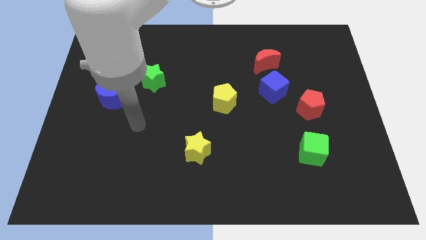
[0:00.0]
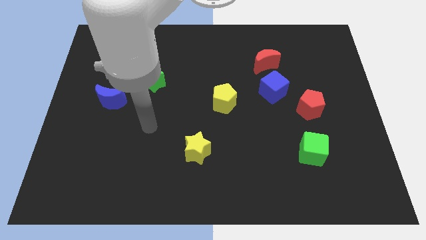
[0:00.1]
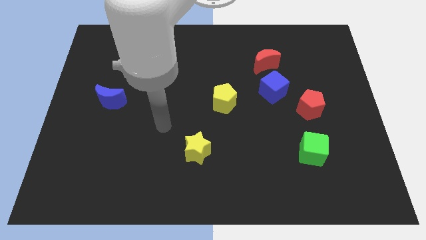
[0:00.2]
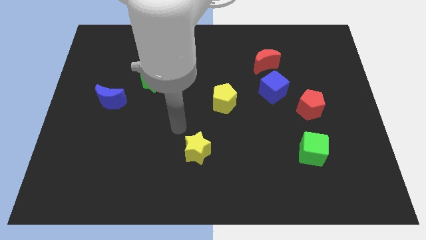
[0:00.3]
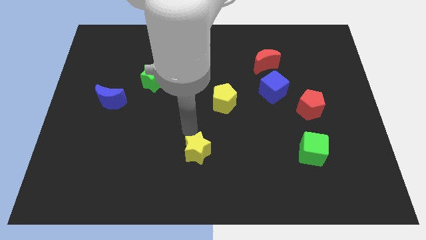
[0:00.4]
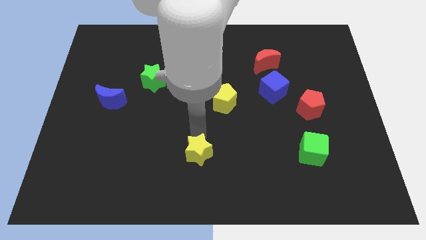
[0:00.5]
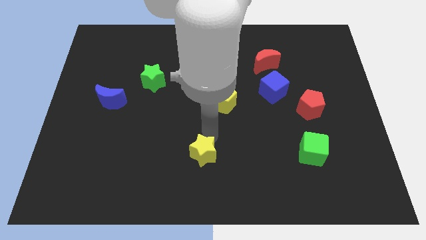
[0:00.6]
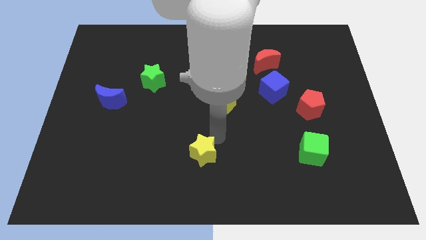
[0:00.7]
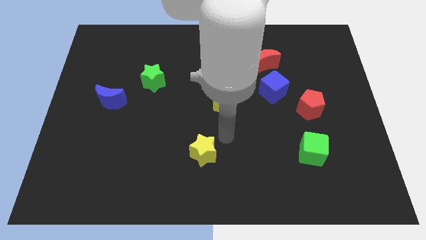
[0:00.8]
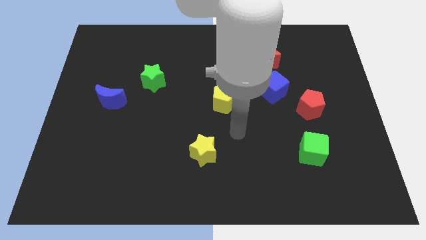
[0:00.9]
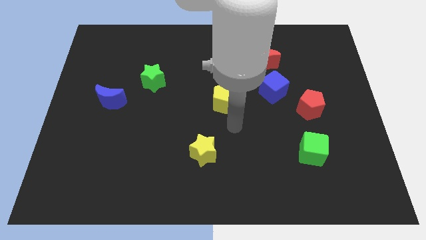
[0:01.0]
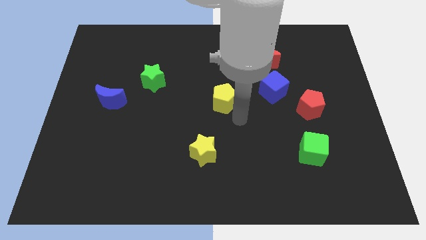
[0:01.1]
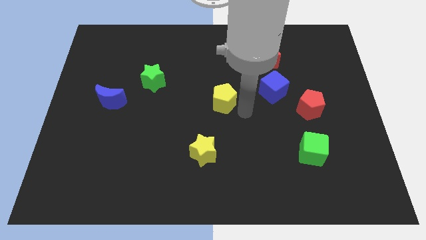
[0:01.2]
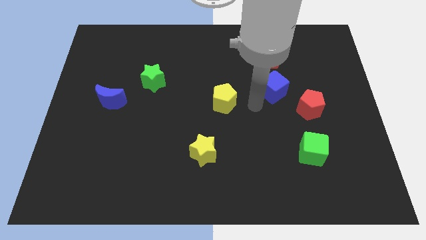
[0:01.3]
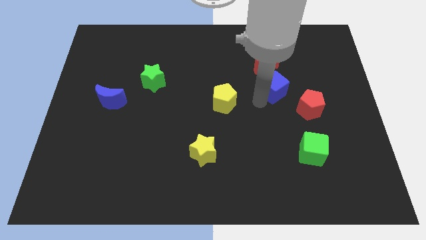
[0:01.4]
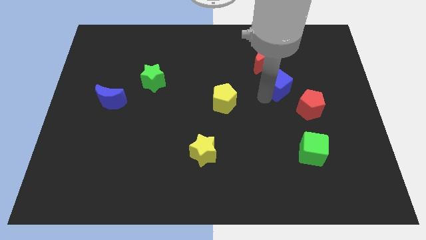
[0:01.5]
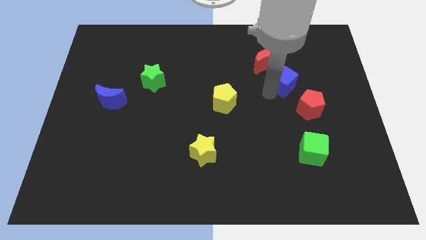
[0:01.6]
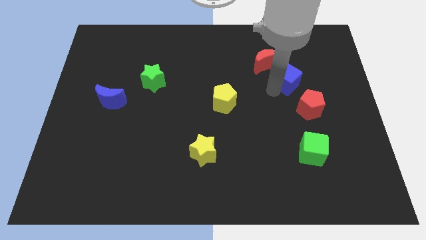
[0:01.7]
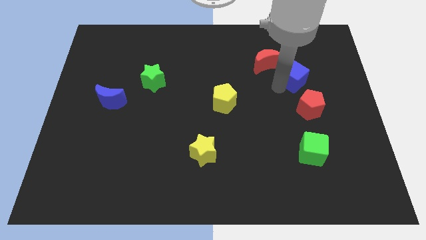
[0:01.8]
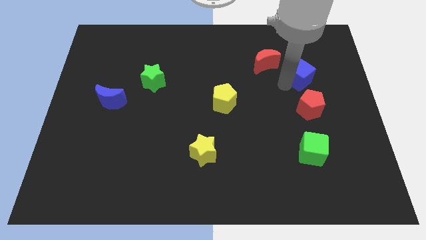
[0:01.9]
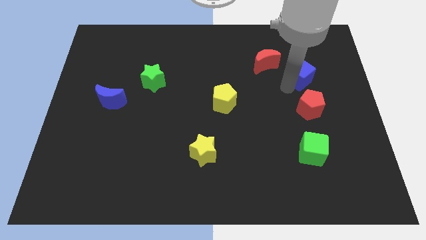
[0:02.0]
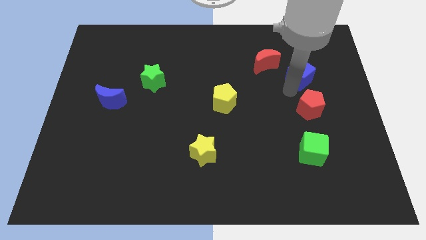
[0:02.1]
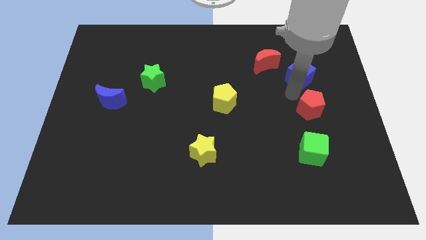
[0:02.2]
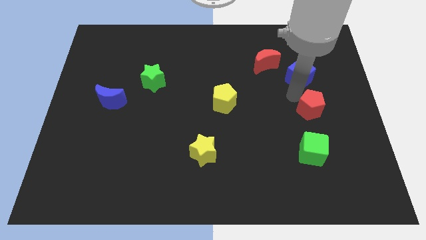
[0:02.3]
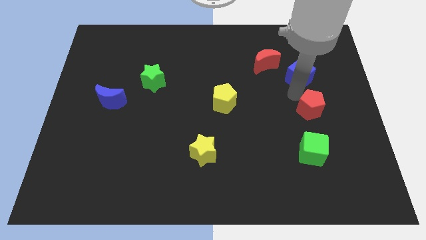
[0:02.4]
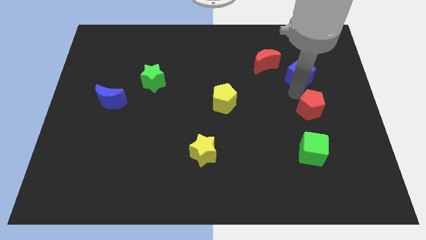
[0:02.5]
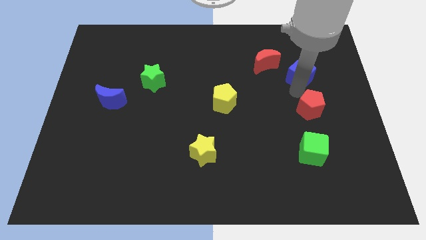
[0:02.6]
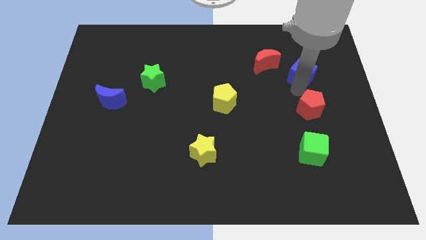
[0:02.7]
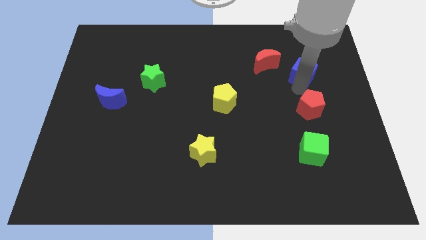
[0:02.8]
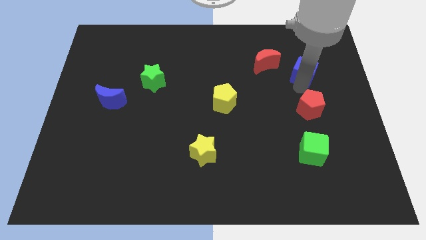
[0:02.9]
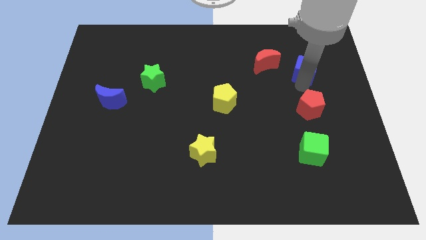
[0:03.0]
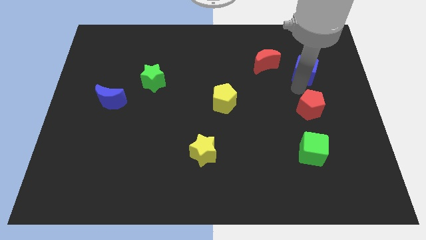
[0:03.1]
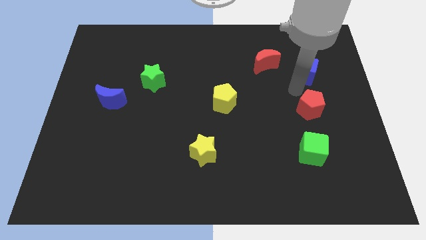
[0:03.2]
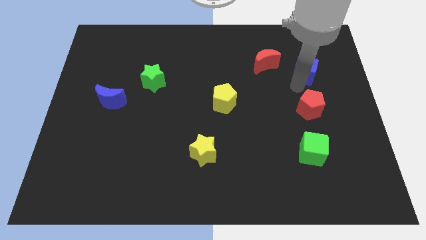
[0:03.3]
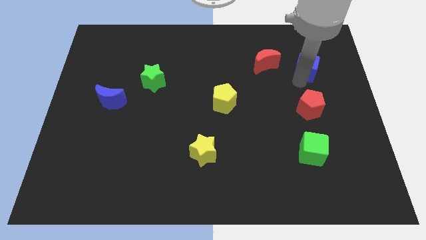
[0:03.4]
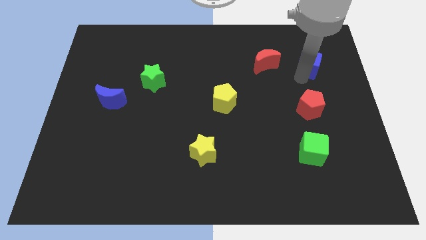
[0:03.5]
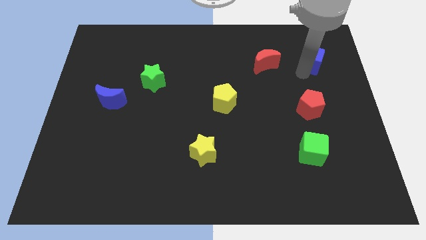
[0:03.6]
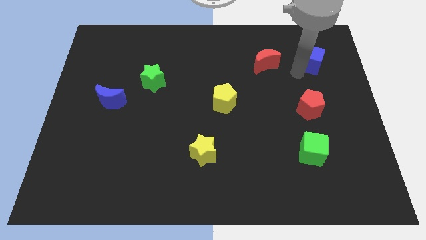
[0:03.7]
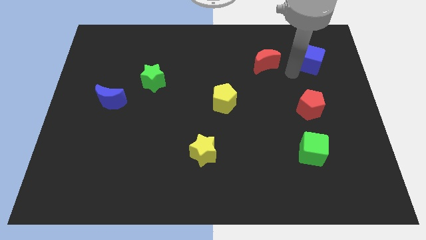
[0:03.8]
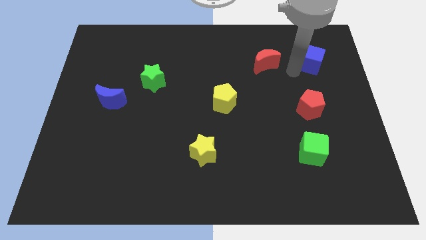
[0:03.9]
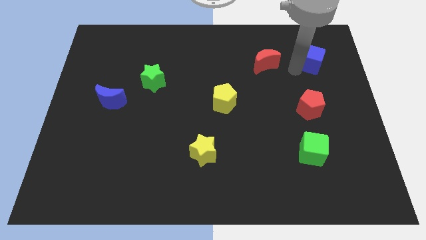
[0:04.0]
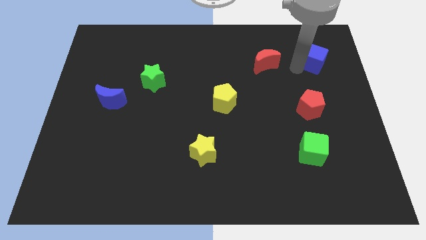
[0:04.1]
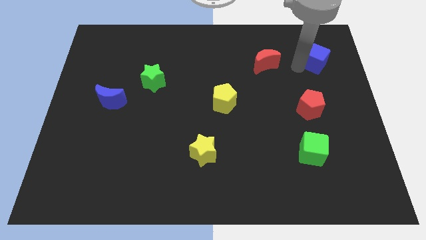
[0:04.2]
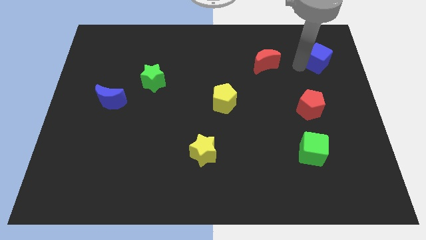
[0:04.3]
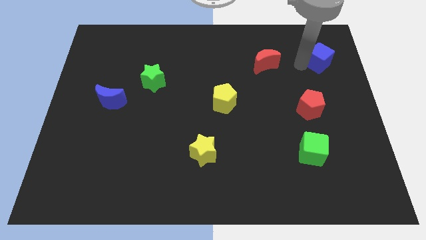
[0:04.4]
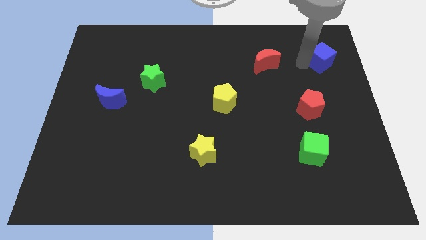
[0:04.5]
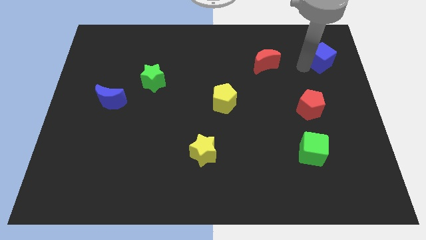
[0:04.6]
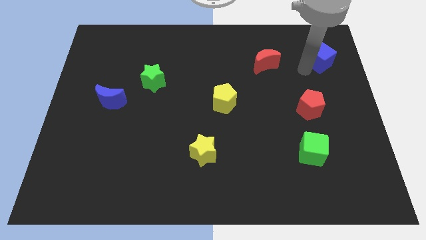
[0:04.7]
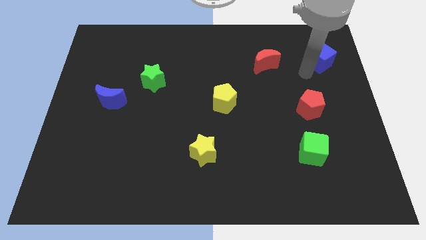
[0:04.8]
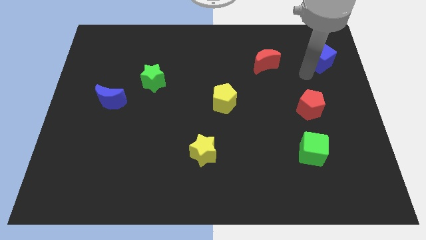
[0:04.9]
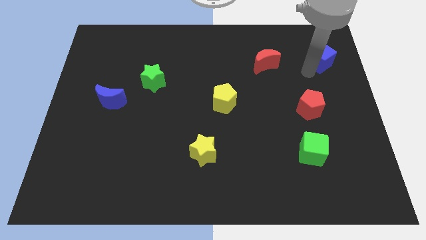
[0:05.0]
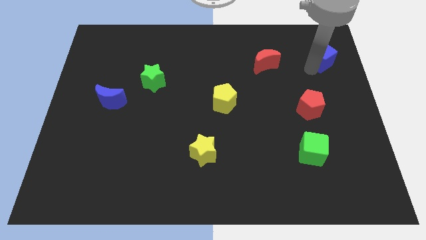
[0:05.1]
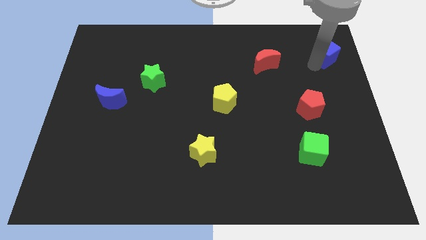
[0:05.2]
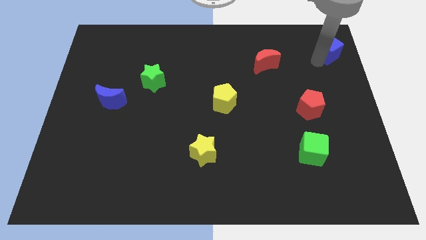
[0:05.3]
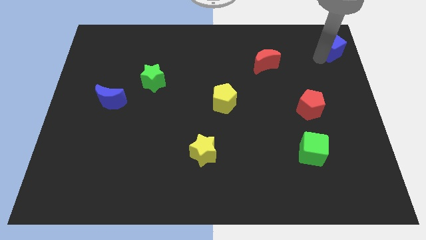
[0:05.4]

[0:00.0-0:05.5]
push the blue cube to the upper right corner

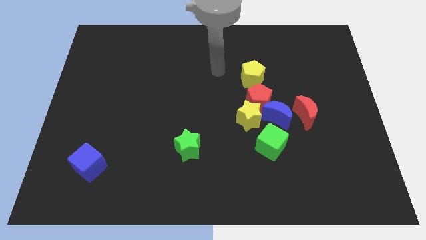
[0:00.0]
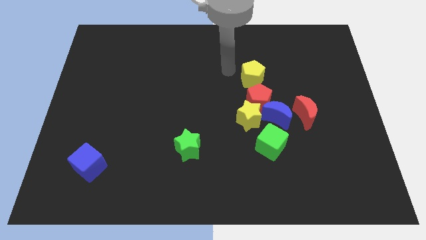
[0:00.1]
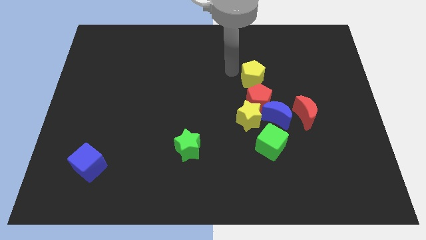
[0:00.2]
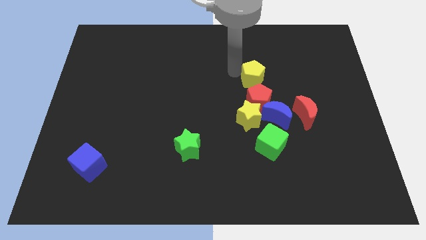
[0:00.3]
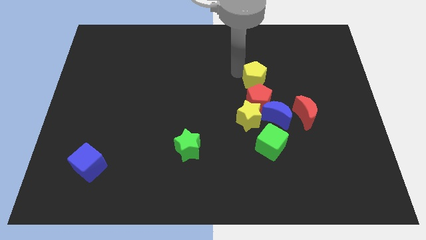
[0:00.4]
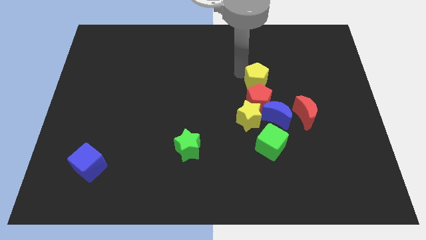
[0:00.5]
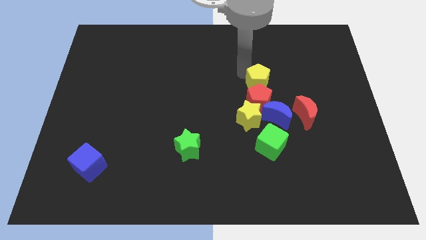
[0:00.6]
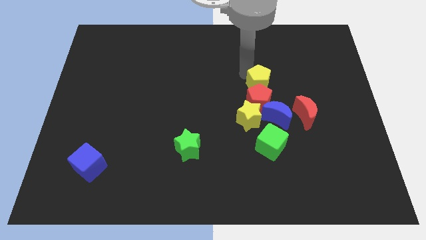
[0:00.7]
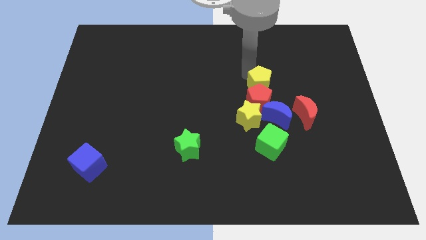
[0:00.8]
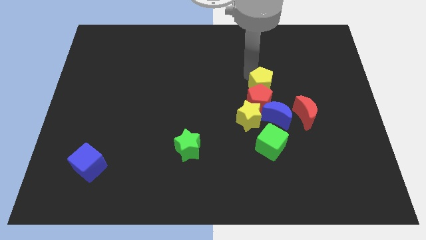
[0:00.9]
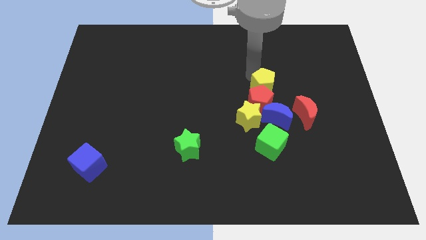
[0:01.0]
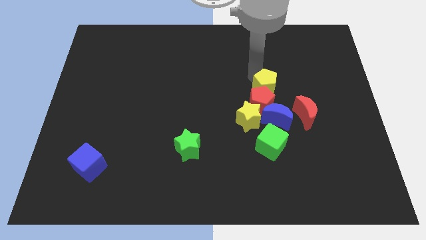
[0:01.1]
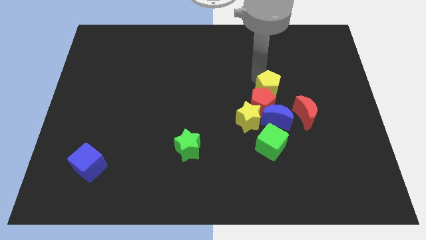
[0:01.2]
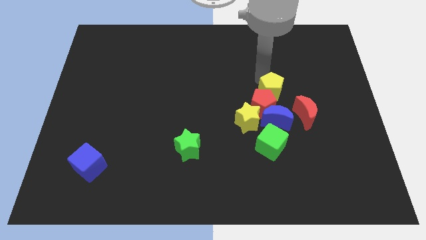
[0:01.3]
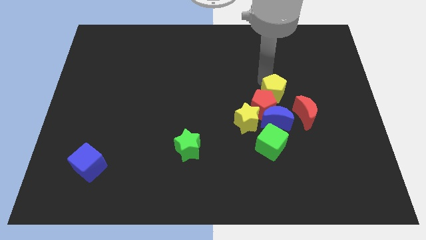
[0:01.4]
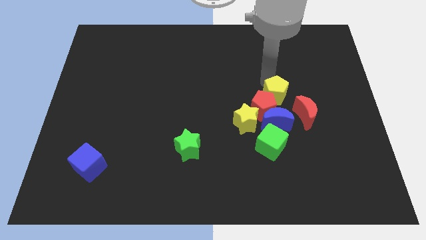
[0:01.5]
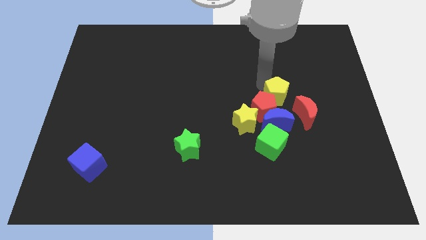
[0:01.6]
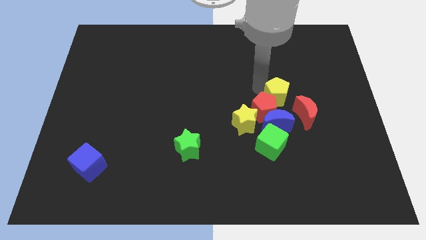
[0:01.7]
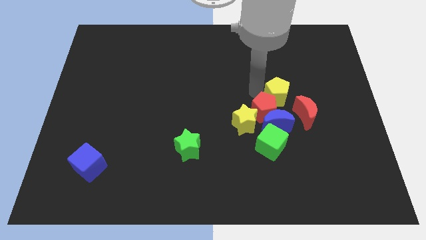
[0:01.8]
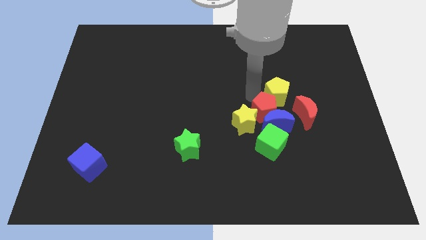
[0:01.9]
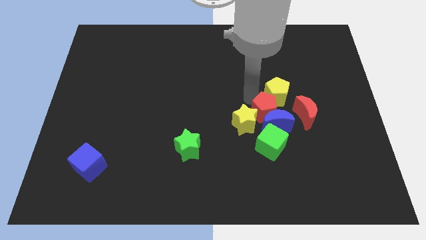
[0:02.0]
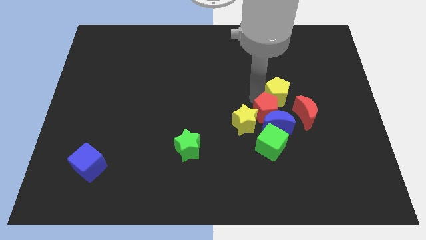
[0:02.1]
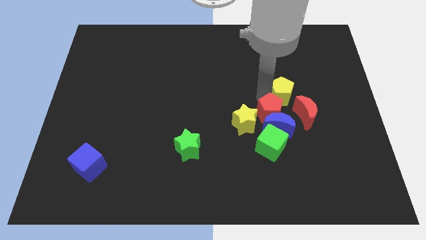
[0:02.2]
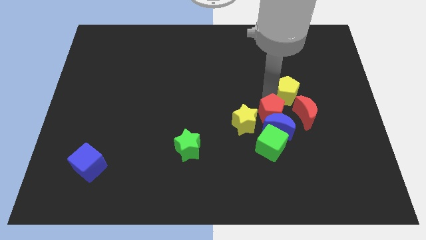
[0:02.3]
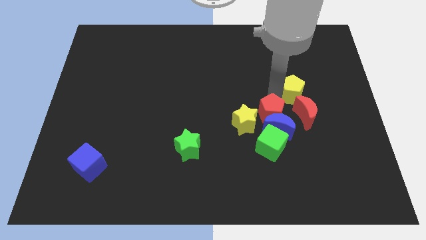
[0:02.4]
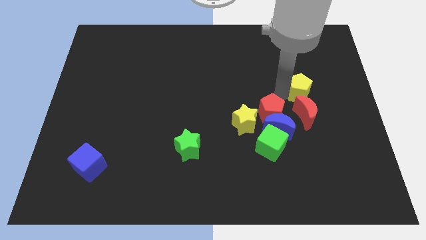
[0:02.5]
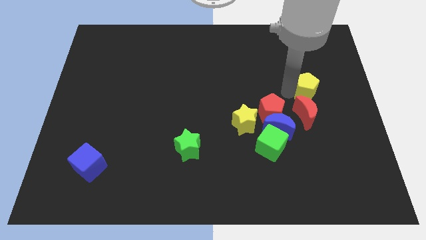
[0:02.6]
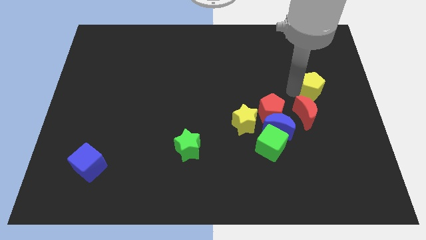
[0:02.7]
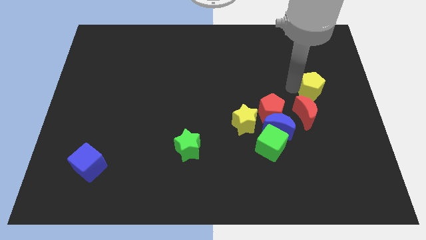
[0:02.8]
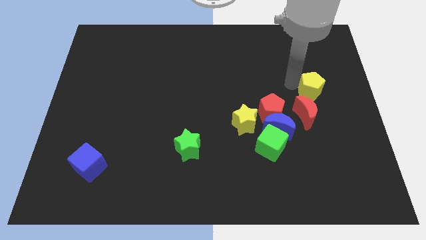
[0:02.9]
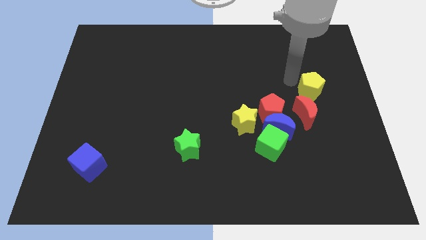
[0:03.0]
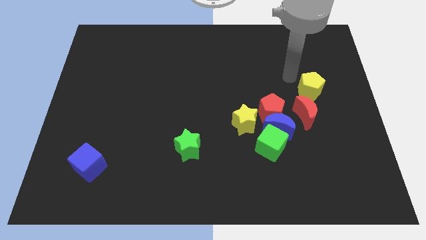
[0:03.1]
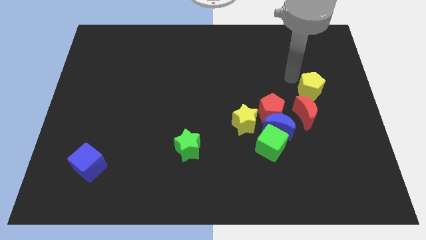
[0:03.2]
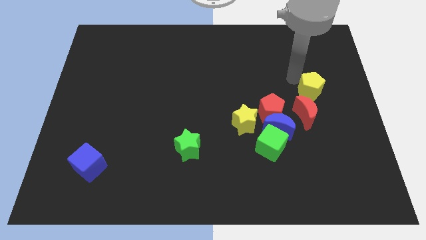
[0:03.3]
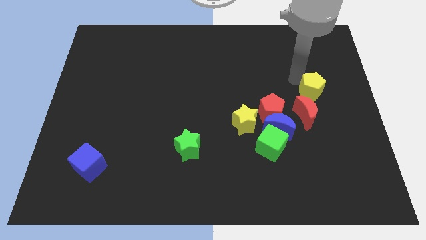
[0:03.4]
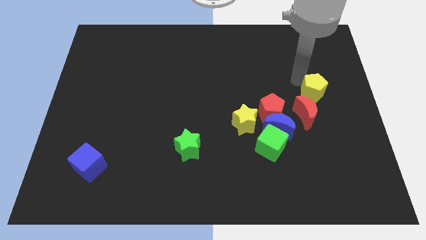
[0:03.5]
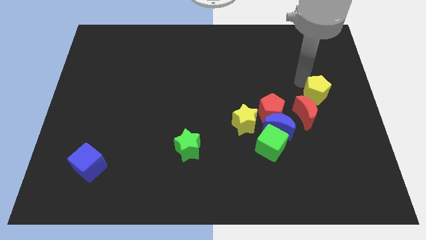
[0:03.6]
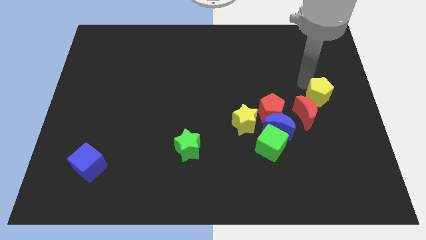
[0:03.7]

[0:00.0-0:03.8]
slide the yellow pentagon to the center right
